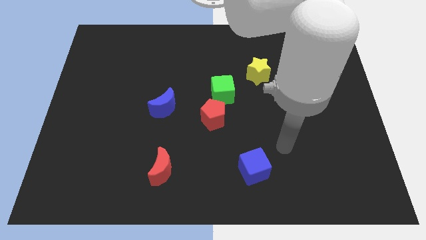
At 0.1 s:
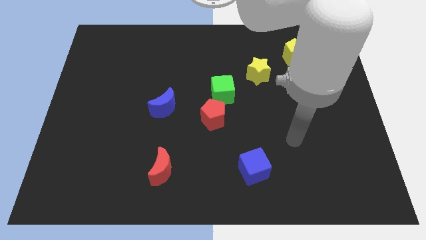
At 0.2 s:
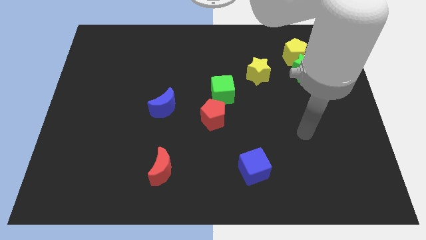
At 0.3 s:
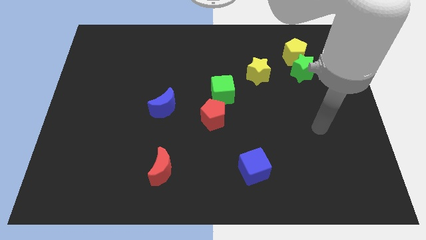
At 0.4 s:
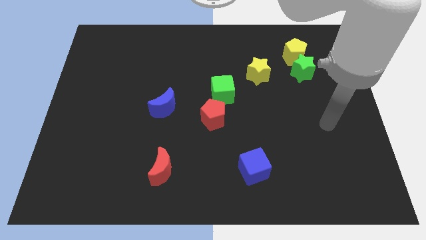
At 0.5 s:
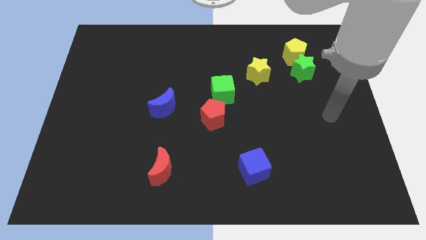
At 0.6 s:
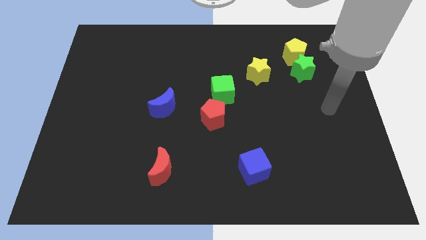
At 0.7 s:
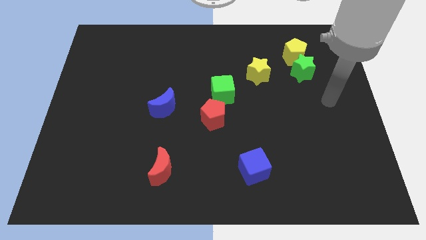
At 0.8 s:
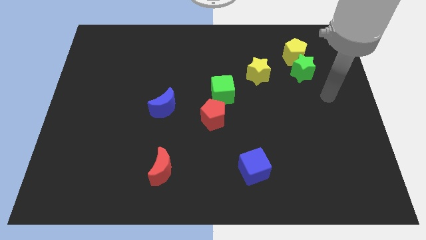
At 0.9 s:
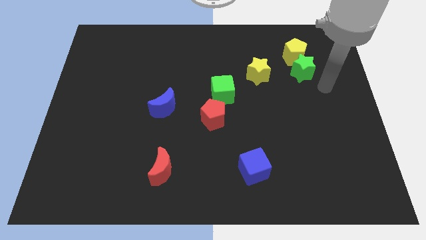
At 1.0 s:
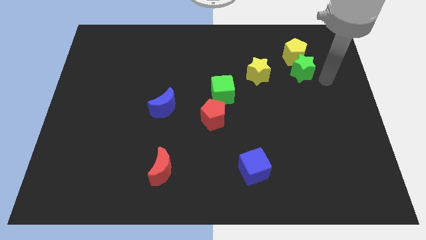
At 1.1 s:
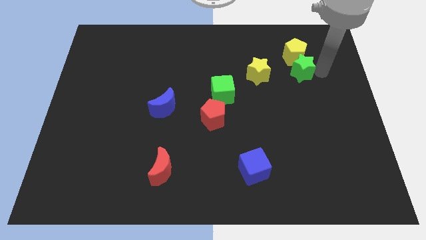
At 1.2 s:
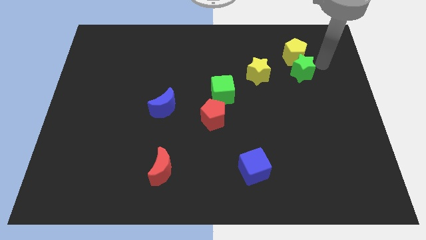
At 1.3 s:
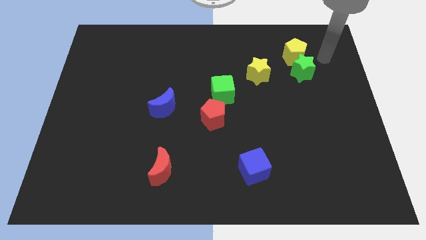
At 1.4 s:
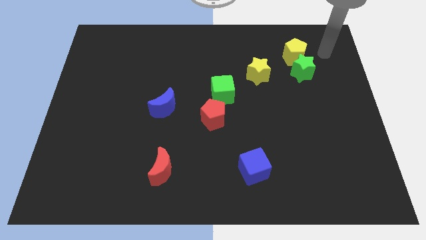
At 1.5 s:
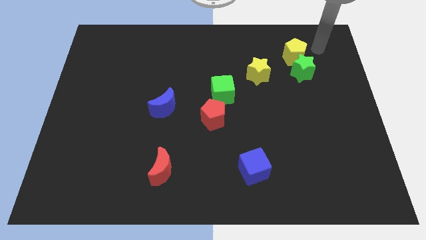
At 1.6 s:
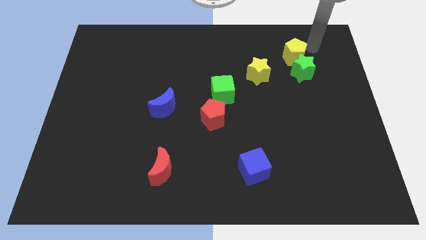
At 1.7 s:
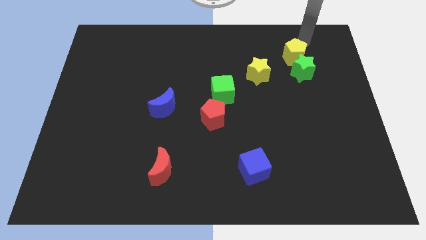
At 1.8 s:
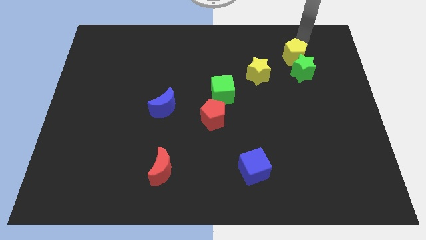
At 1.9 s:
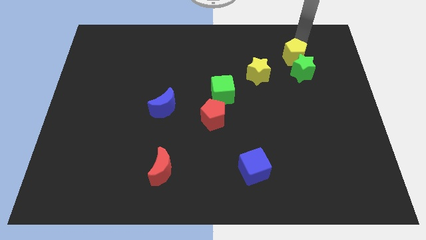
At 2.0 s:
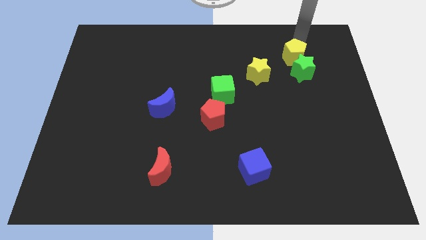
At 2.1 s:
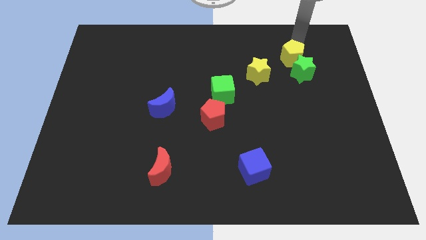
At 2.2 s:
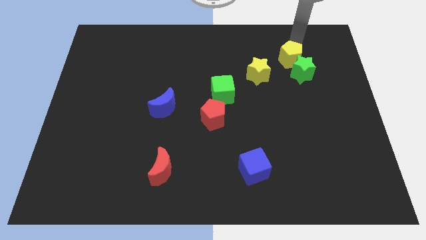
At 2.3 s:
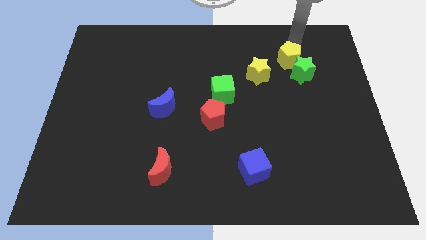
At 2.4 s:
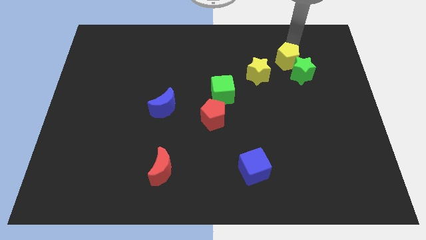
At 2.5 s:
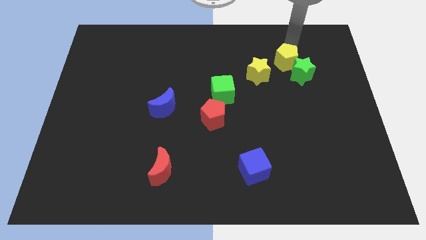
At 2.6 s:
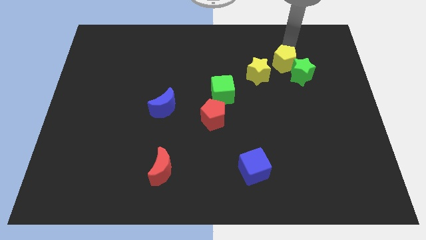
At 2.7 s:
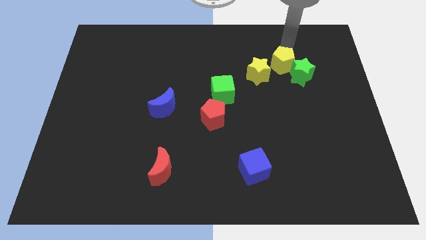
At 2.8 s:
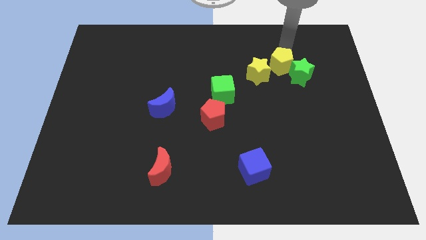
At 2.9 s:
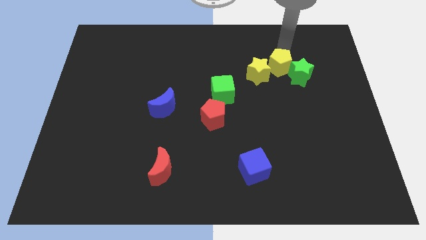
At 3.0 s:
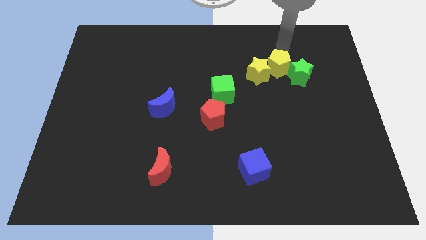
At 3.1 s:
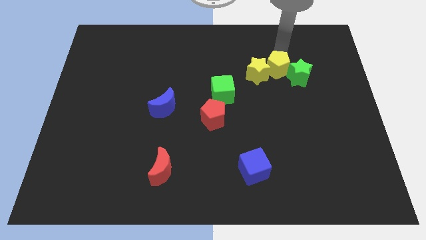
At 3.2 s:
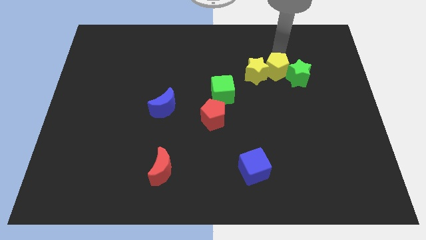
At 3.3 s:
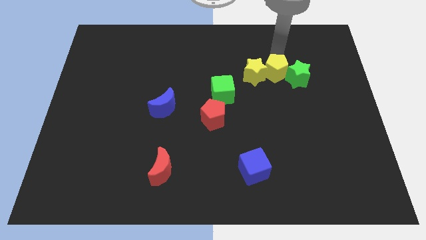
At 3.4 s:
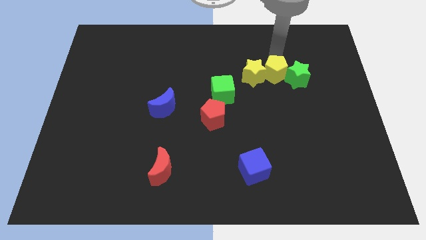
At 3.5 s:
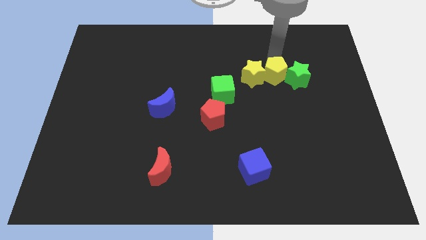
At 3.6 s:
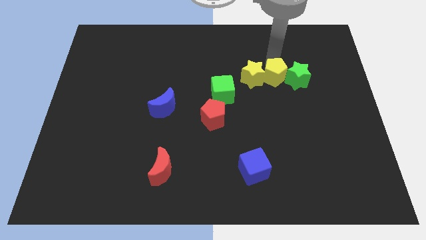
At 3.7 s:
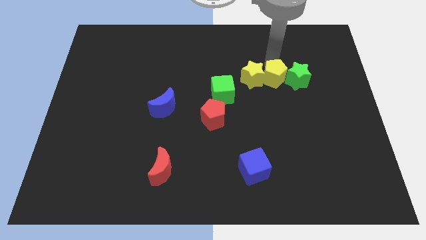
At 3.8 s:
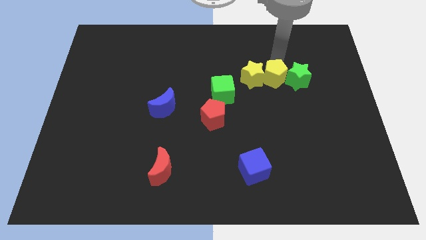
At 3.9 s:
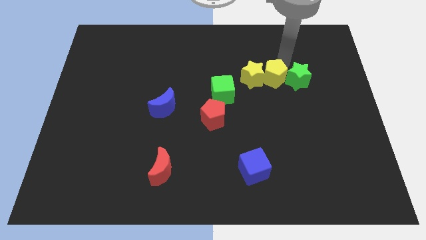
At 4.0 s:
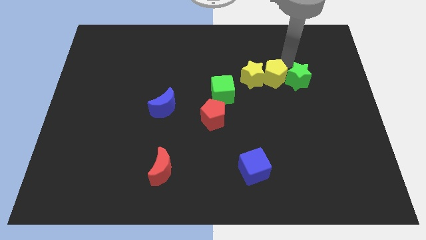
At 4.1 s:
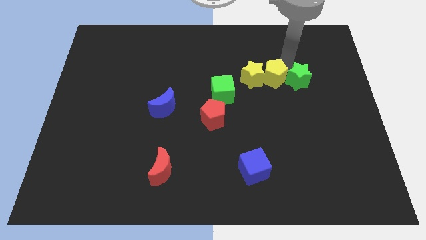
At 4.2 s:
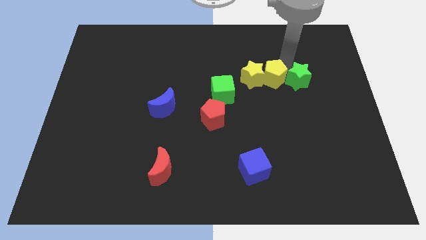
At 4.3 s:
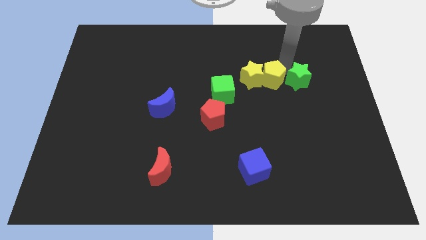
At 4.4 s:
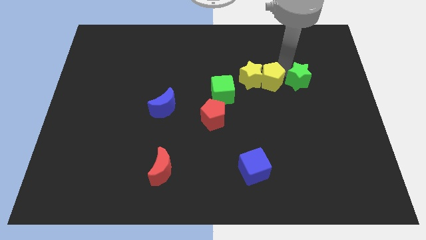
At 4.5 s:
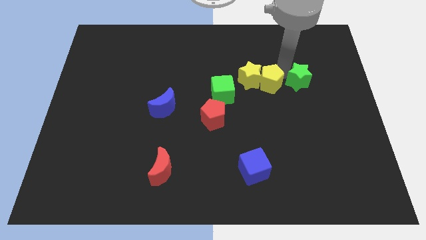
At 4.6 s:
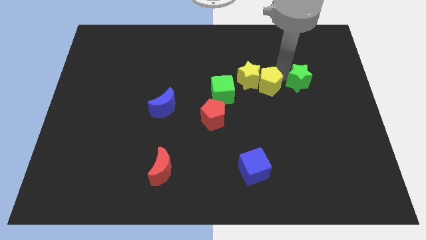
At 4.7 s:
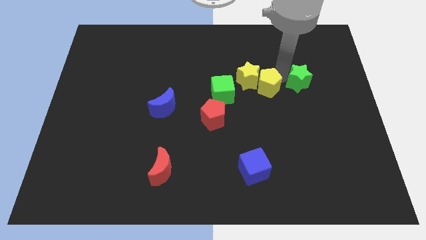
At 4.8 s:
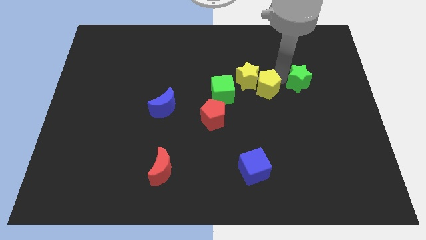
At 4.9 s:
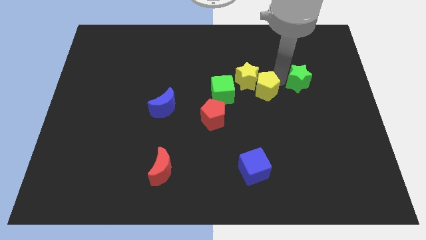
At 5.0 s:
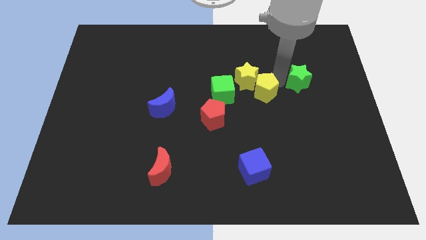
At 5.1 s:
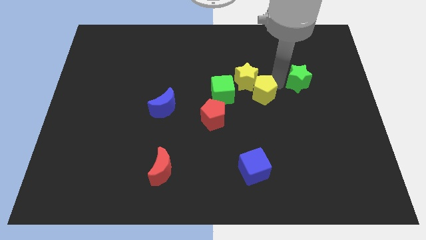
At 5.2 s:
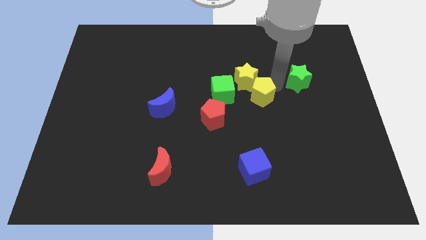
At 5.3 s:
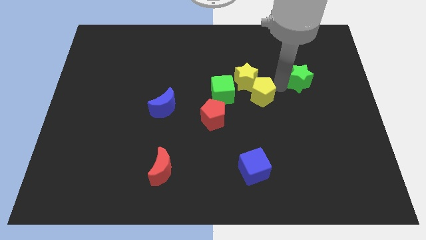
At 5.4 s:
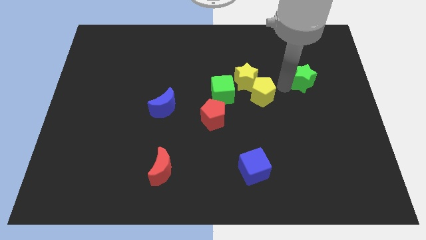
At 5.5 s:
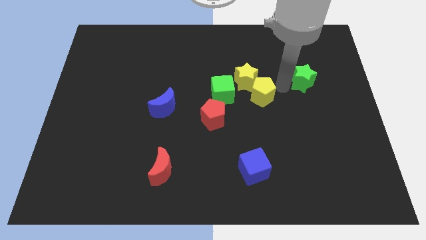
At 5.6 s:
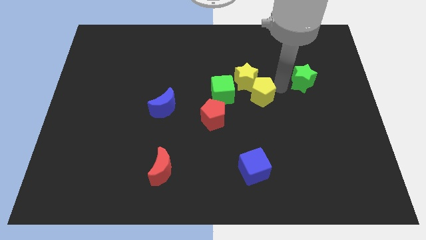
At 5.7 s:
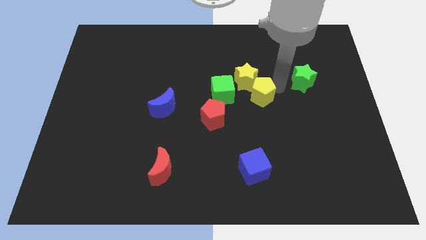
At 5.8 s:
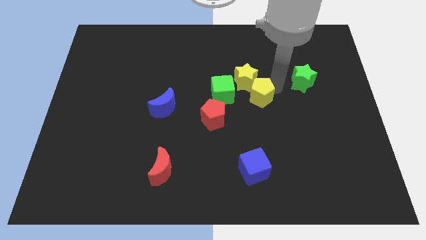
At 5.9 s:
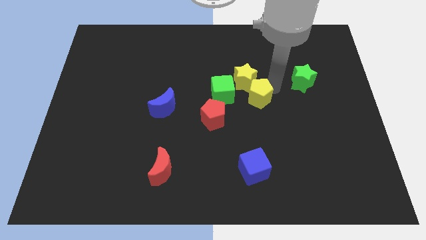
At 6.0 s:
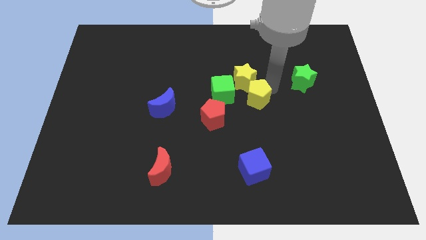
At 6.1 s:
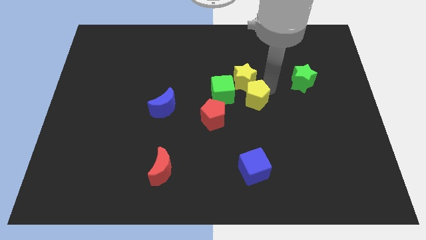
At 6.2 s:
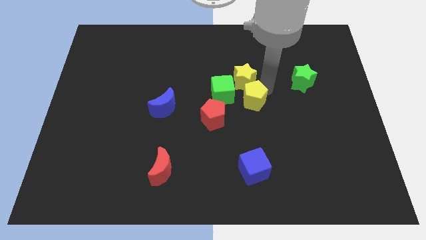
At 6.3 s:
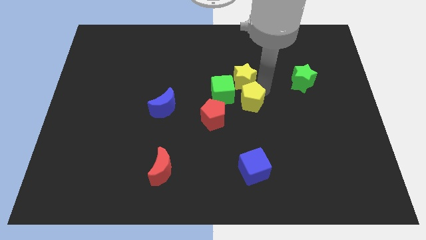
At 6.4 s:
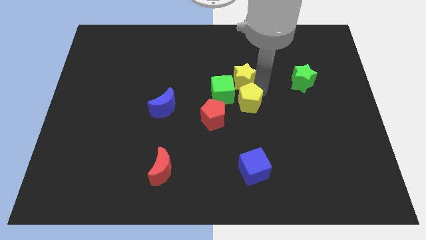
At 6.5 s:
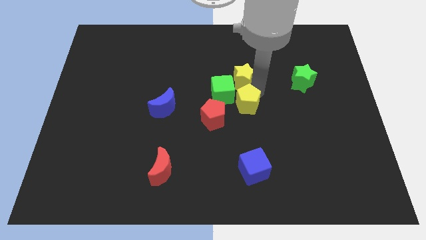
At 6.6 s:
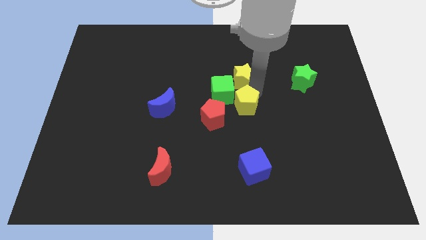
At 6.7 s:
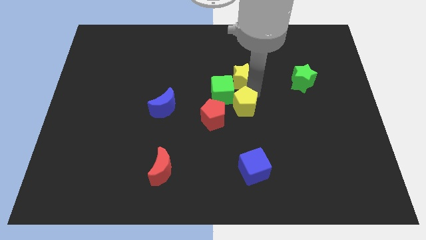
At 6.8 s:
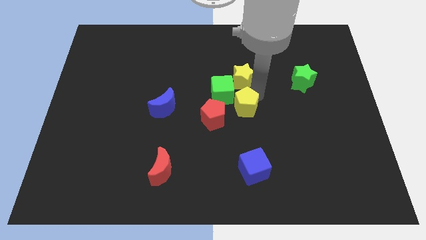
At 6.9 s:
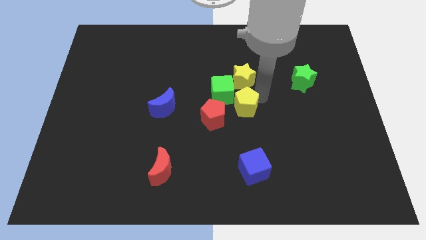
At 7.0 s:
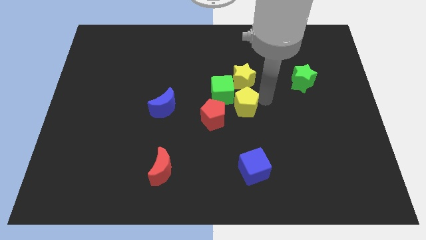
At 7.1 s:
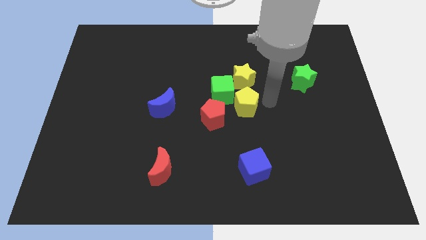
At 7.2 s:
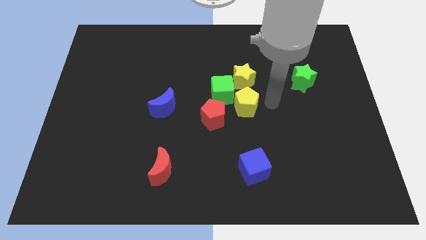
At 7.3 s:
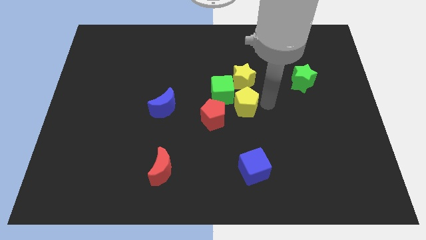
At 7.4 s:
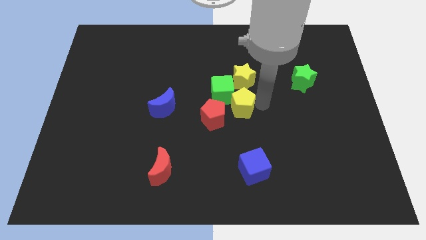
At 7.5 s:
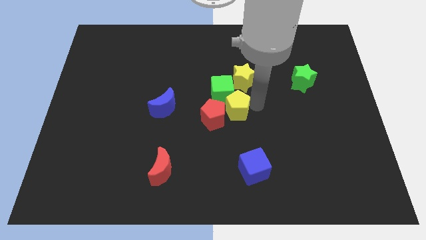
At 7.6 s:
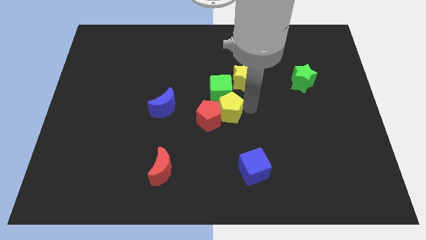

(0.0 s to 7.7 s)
slide the yellow pentagon to the right side of the blue moon
